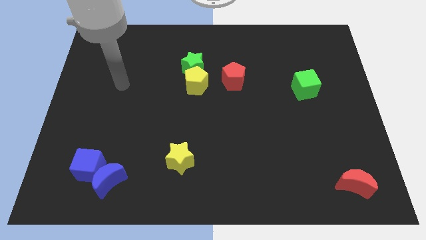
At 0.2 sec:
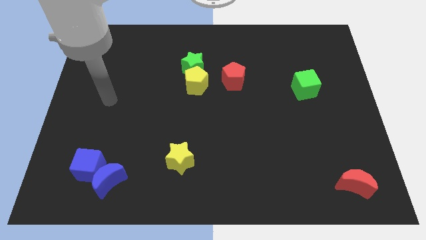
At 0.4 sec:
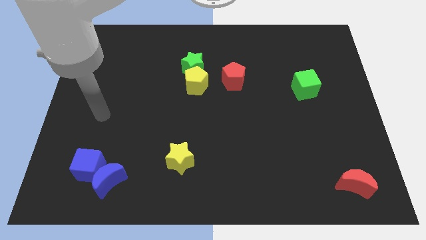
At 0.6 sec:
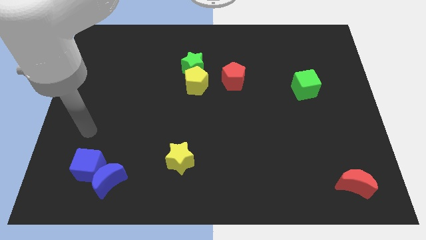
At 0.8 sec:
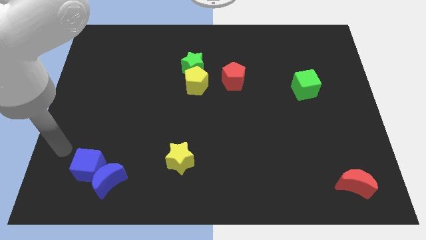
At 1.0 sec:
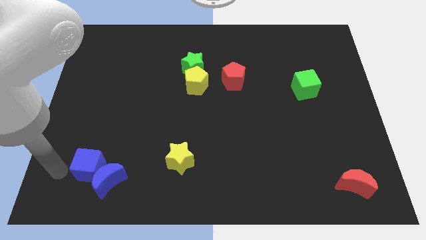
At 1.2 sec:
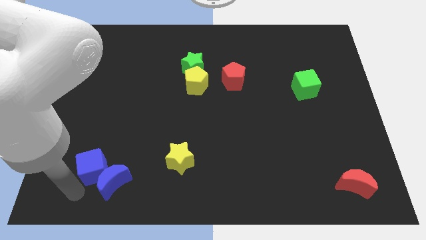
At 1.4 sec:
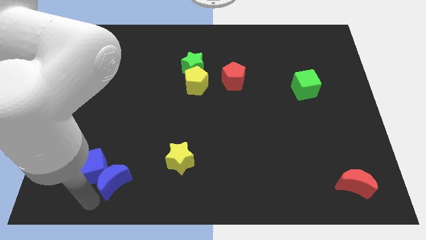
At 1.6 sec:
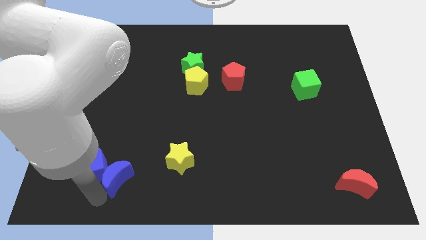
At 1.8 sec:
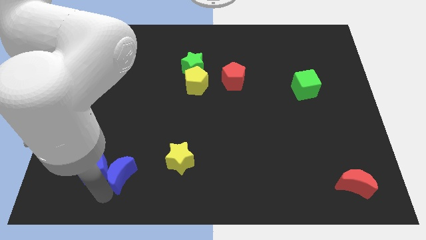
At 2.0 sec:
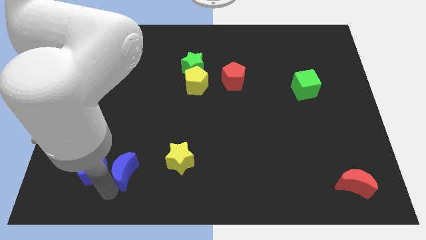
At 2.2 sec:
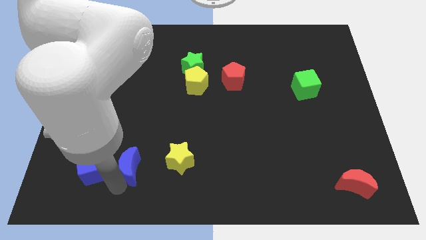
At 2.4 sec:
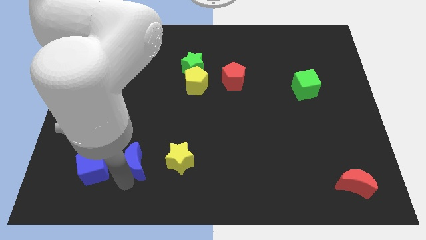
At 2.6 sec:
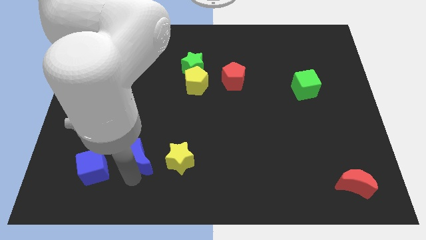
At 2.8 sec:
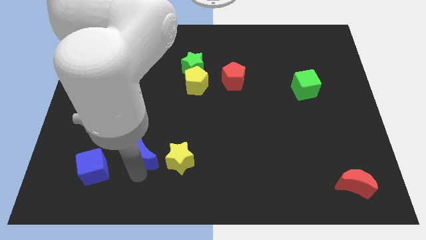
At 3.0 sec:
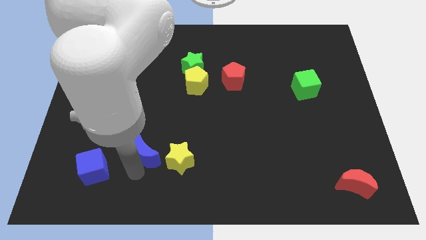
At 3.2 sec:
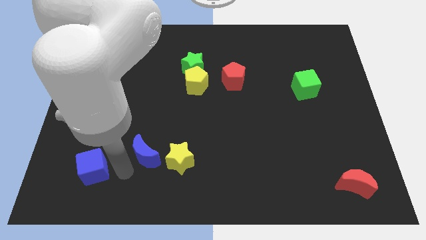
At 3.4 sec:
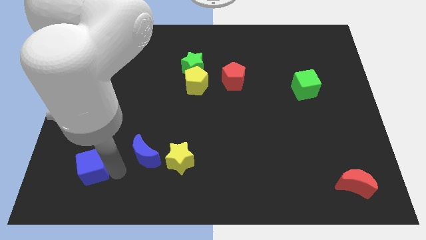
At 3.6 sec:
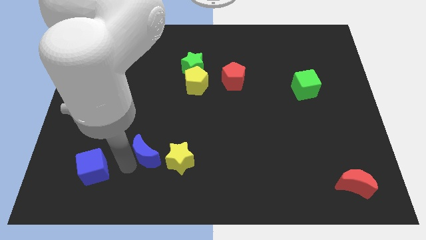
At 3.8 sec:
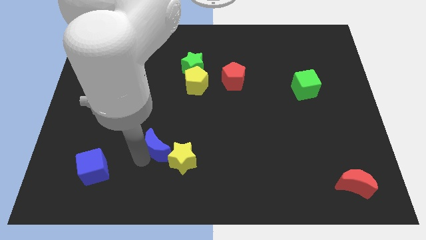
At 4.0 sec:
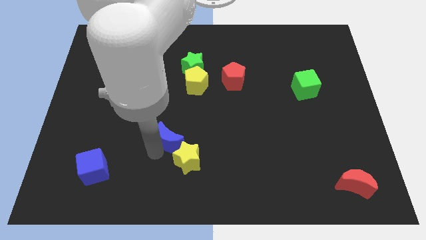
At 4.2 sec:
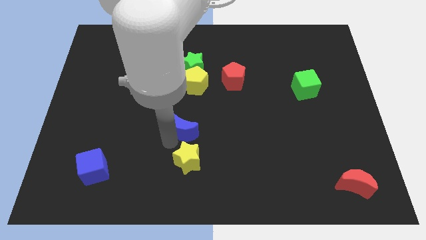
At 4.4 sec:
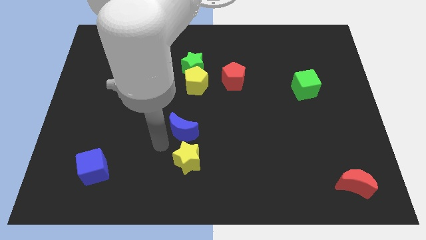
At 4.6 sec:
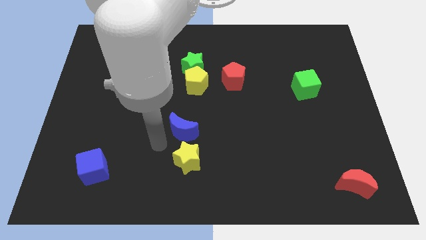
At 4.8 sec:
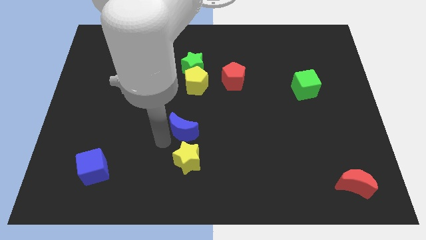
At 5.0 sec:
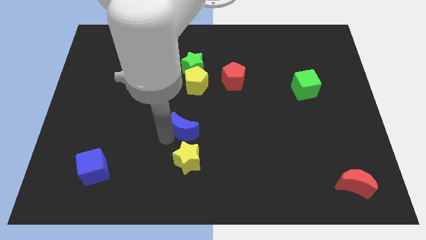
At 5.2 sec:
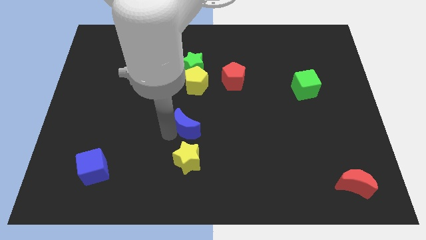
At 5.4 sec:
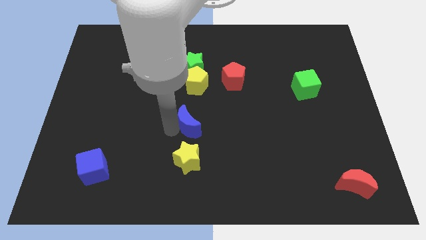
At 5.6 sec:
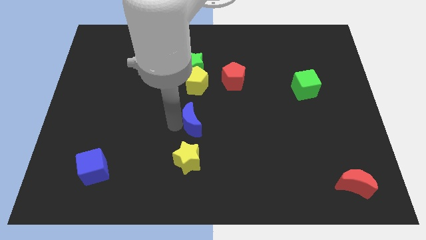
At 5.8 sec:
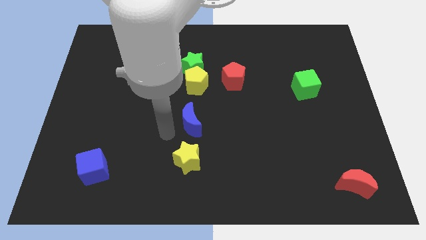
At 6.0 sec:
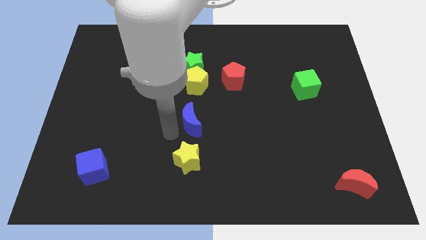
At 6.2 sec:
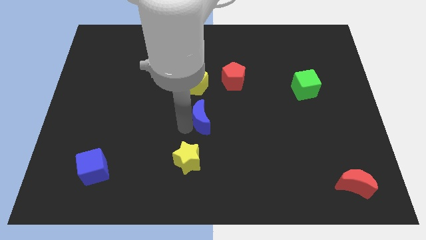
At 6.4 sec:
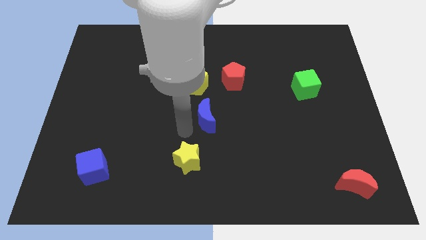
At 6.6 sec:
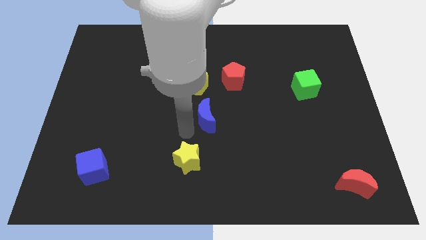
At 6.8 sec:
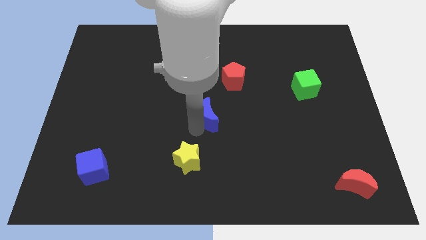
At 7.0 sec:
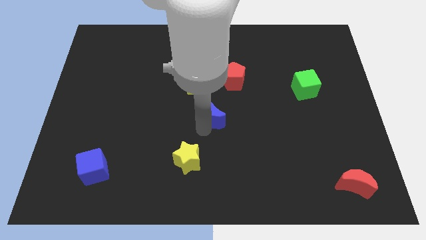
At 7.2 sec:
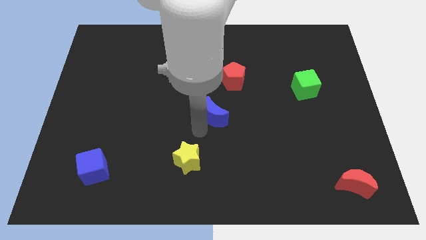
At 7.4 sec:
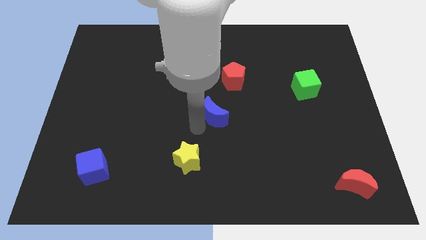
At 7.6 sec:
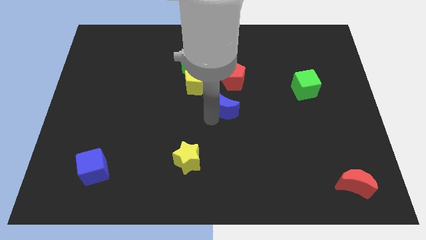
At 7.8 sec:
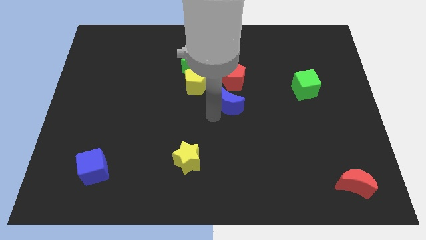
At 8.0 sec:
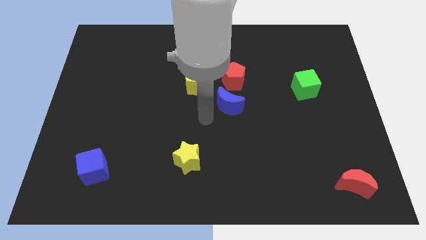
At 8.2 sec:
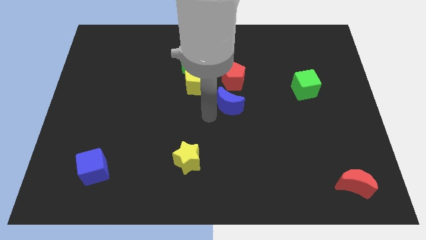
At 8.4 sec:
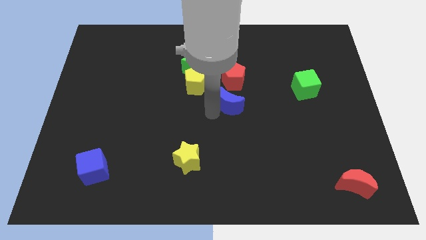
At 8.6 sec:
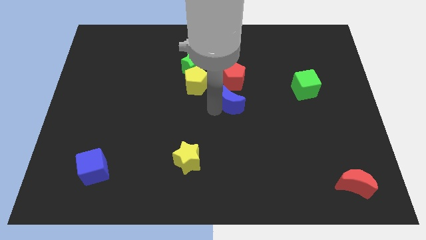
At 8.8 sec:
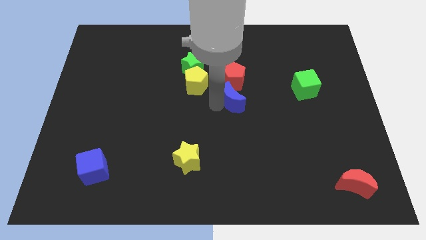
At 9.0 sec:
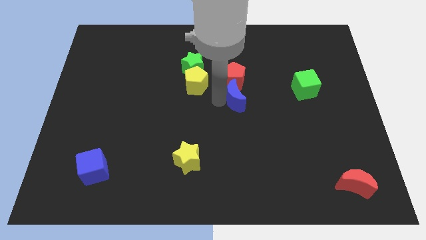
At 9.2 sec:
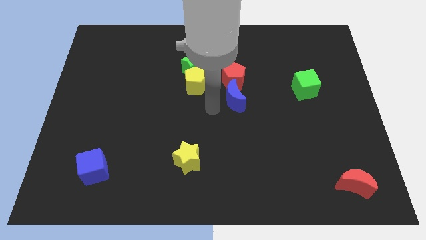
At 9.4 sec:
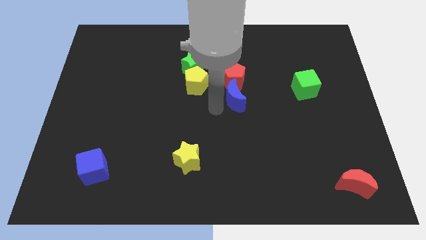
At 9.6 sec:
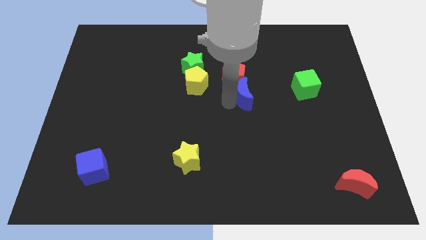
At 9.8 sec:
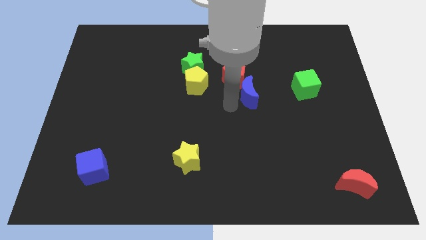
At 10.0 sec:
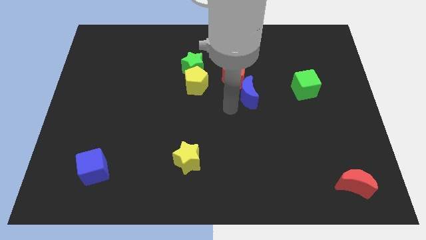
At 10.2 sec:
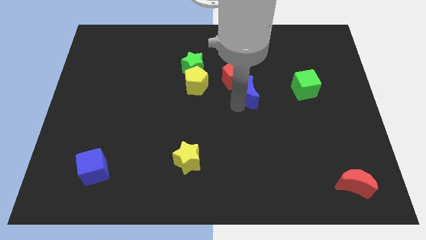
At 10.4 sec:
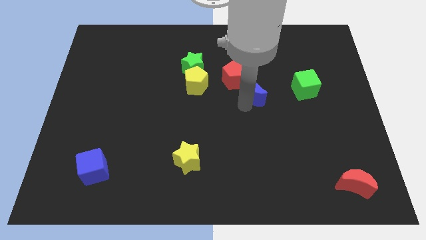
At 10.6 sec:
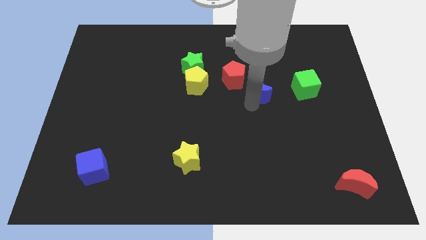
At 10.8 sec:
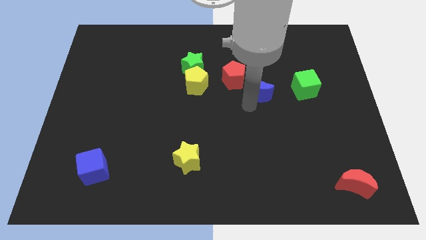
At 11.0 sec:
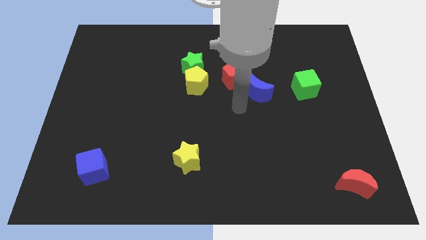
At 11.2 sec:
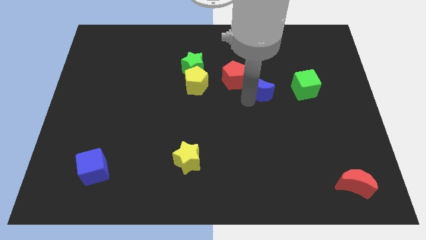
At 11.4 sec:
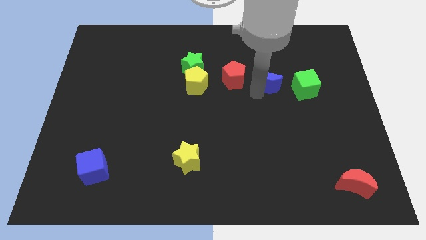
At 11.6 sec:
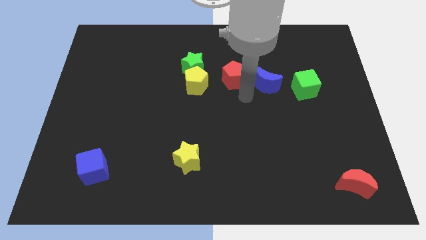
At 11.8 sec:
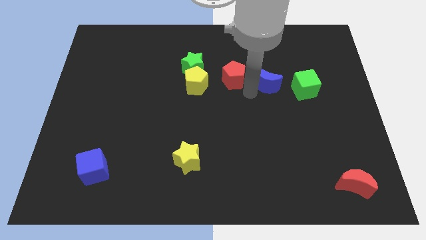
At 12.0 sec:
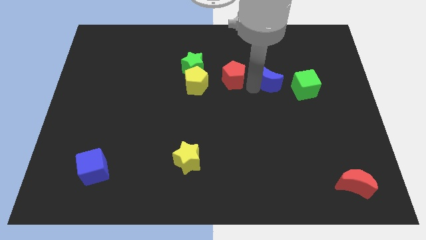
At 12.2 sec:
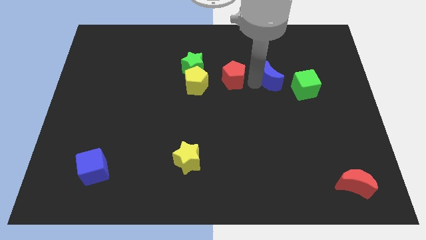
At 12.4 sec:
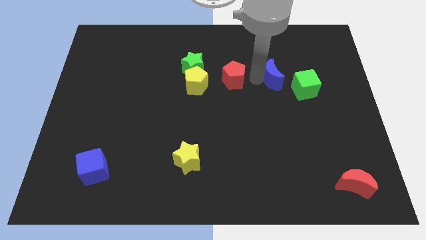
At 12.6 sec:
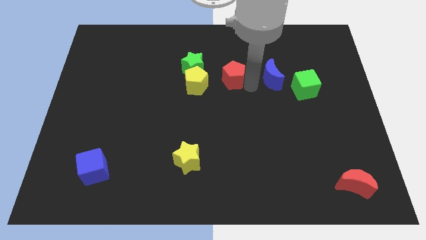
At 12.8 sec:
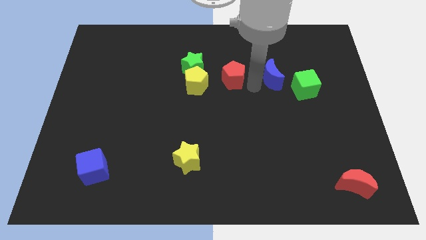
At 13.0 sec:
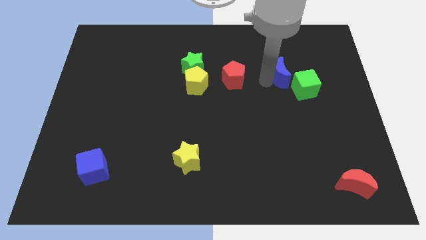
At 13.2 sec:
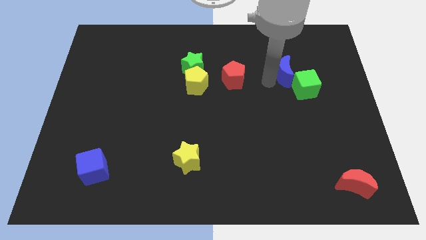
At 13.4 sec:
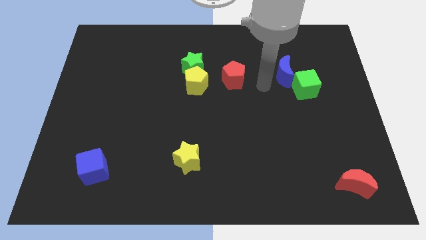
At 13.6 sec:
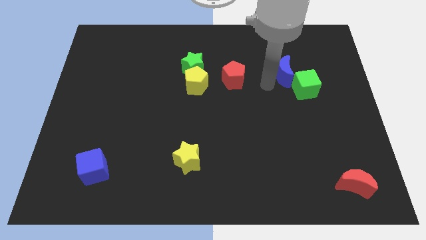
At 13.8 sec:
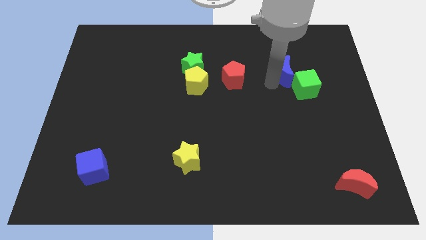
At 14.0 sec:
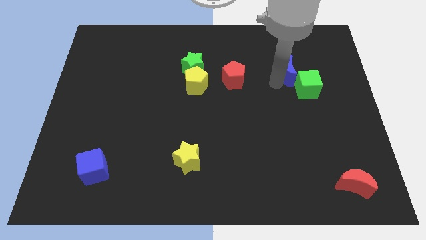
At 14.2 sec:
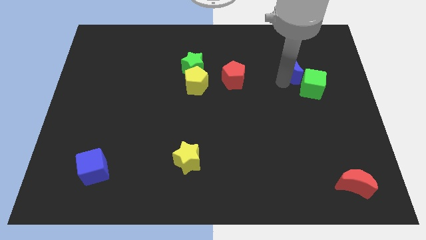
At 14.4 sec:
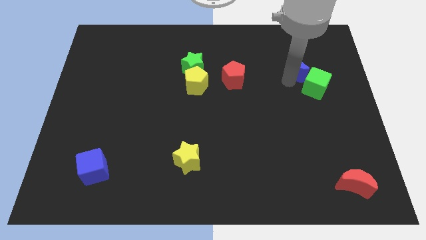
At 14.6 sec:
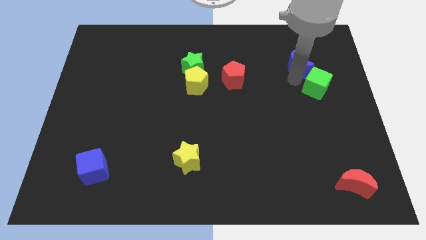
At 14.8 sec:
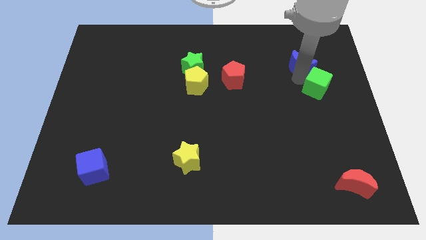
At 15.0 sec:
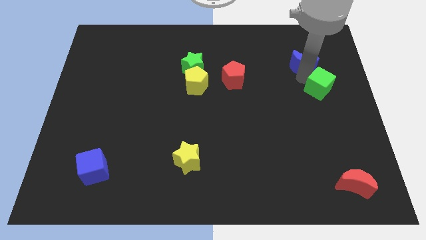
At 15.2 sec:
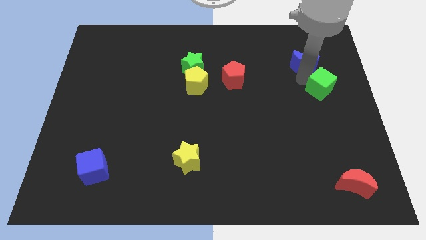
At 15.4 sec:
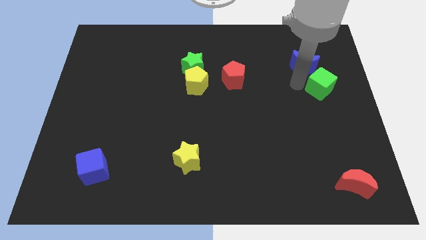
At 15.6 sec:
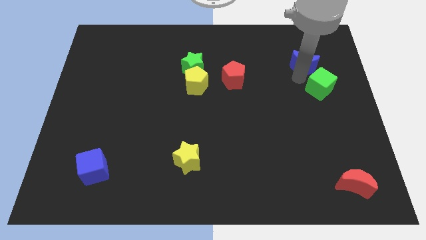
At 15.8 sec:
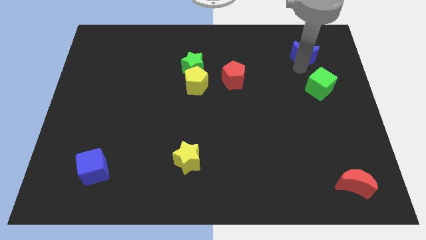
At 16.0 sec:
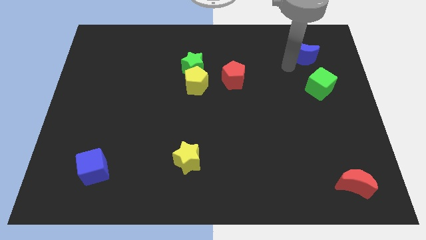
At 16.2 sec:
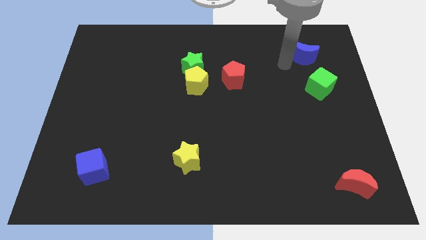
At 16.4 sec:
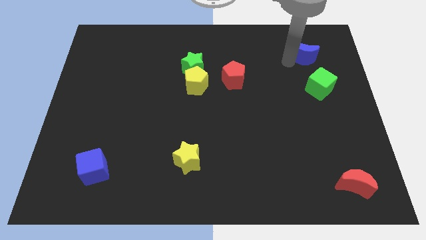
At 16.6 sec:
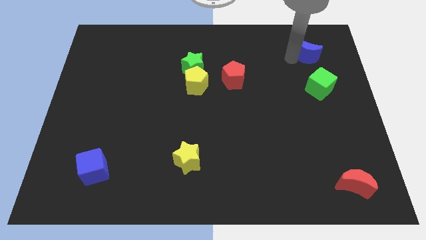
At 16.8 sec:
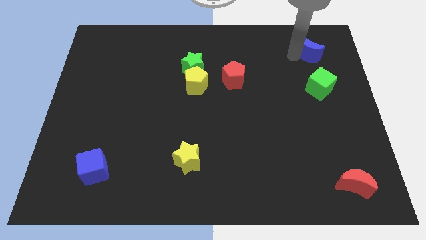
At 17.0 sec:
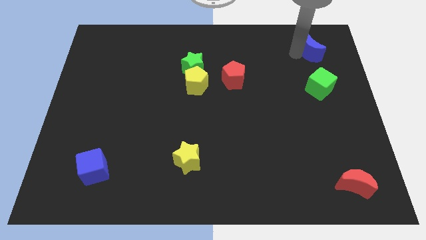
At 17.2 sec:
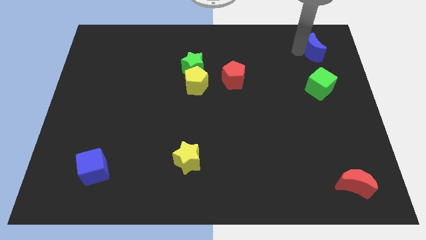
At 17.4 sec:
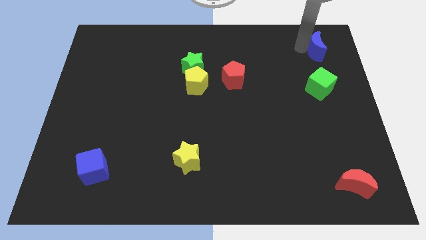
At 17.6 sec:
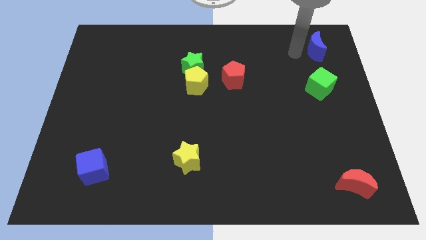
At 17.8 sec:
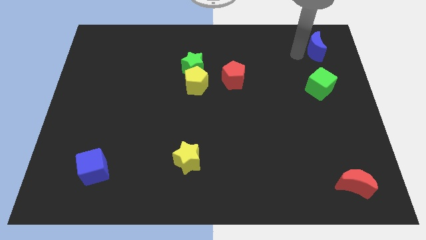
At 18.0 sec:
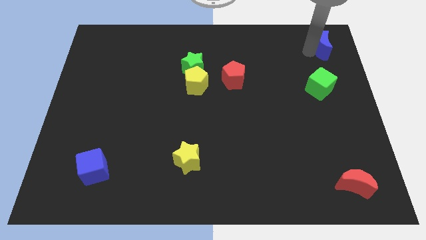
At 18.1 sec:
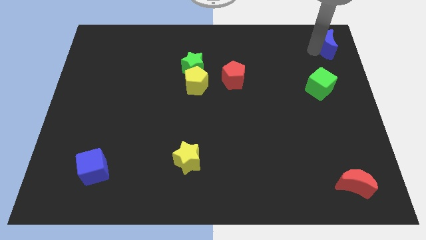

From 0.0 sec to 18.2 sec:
slide the blue moon to the upper right corner
